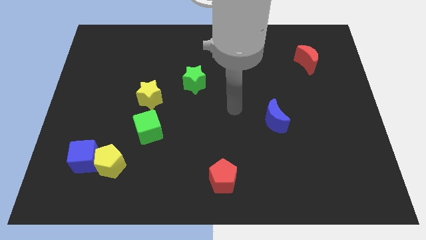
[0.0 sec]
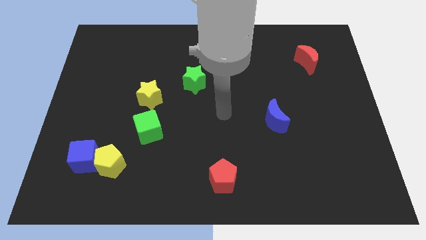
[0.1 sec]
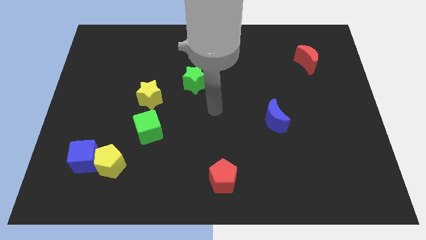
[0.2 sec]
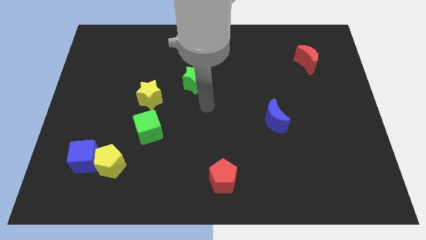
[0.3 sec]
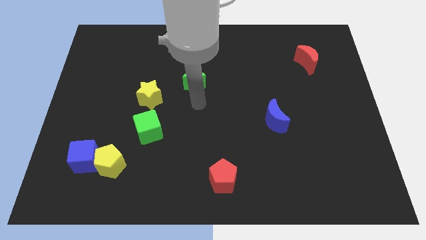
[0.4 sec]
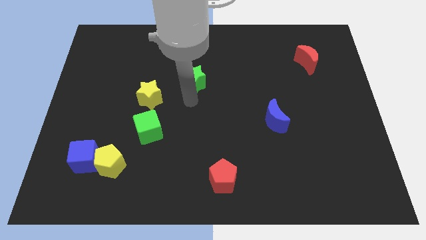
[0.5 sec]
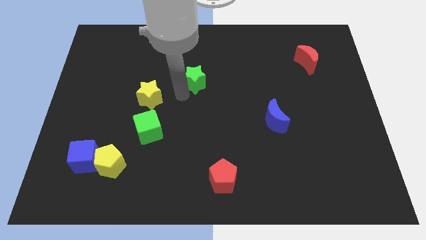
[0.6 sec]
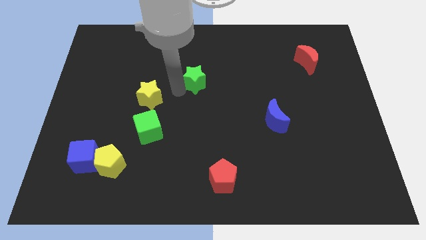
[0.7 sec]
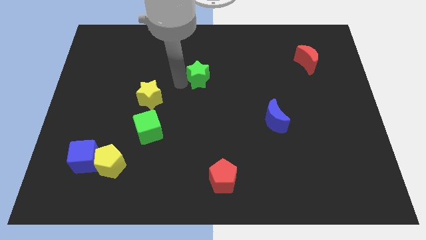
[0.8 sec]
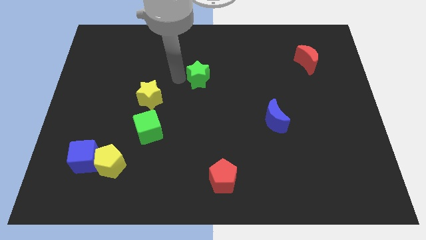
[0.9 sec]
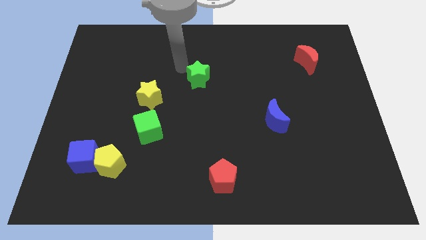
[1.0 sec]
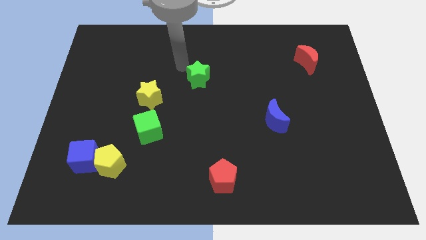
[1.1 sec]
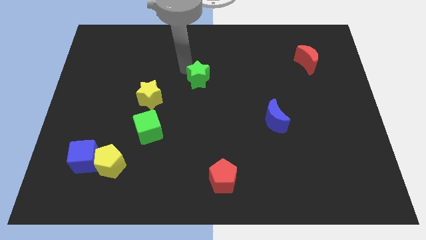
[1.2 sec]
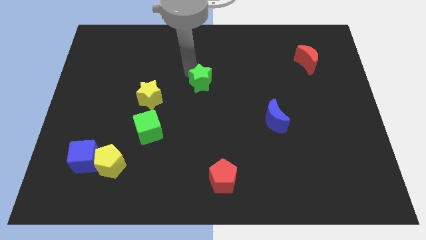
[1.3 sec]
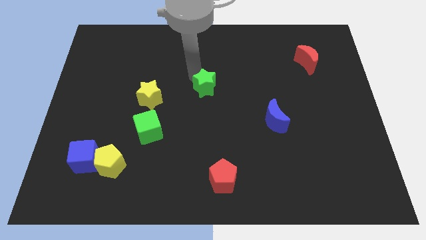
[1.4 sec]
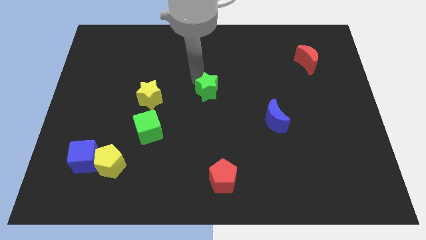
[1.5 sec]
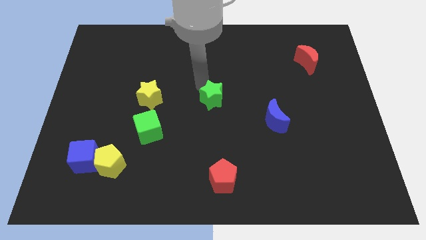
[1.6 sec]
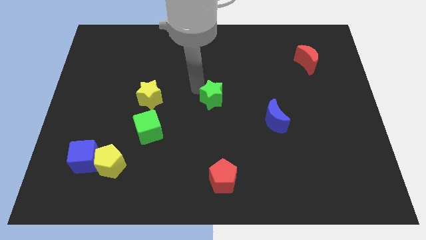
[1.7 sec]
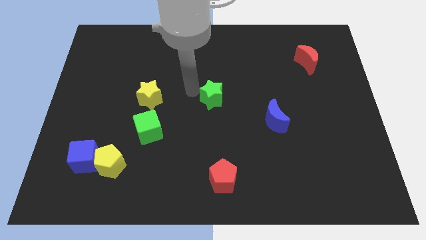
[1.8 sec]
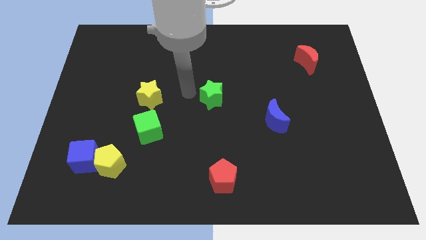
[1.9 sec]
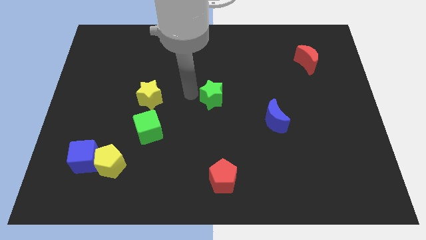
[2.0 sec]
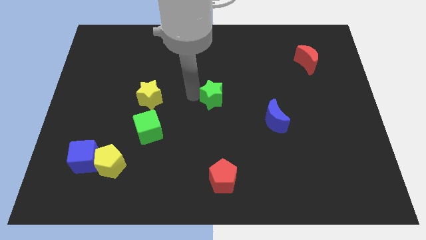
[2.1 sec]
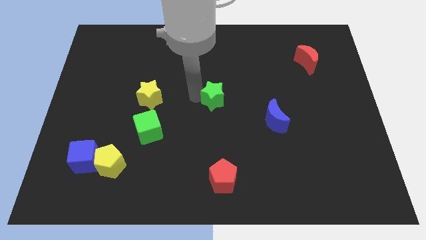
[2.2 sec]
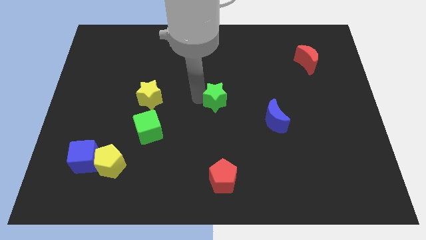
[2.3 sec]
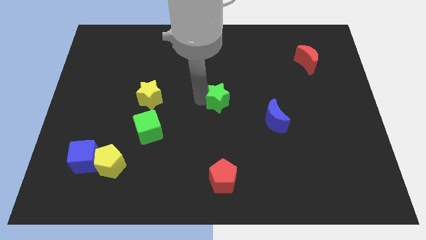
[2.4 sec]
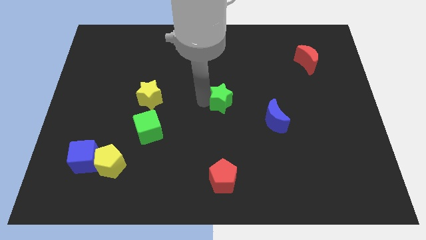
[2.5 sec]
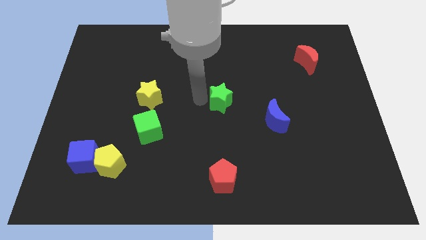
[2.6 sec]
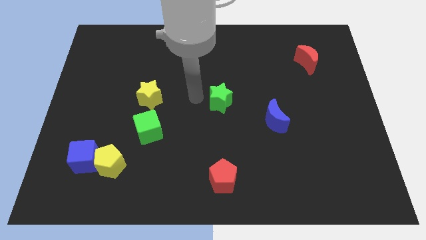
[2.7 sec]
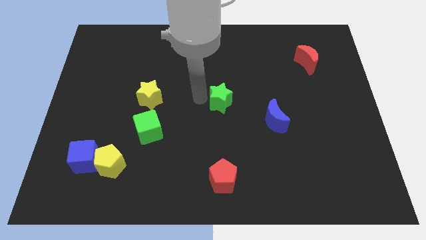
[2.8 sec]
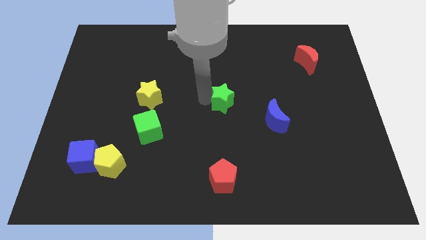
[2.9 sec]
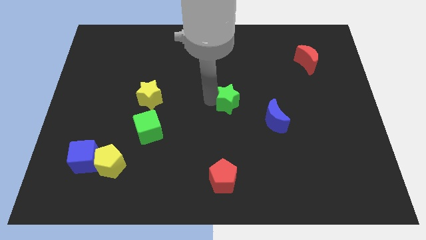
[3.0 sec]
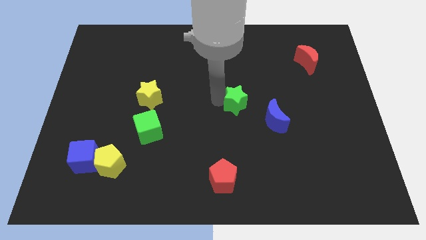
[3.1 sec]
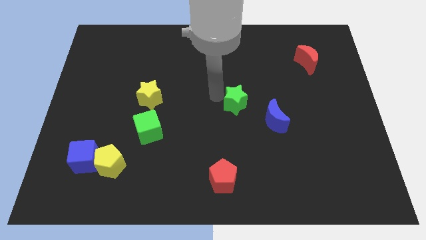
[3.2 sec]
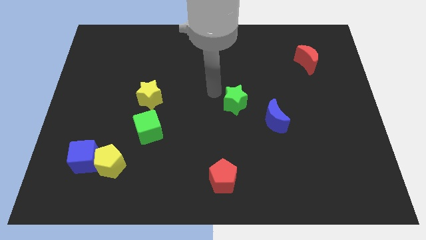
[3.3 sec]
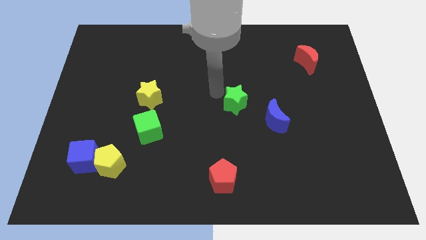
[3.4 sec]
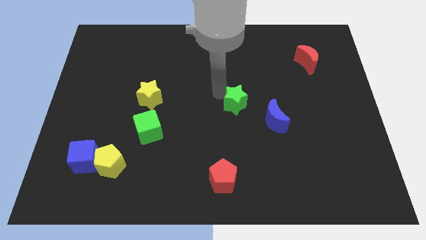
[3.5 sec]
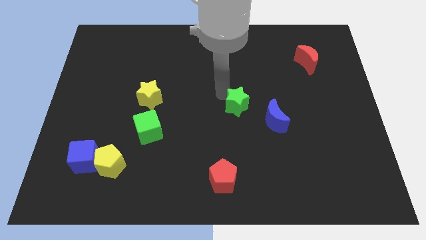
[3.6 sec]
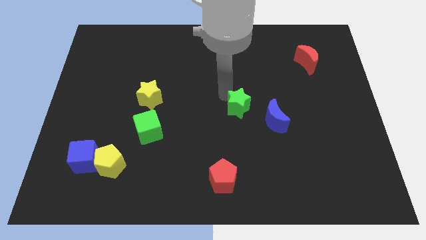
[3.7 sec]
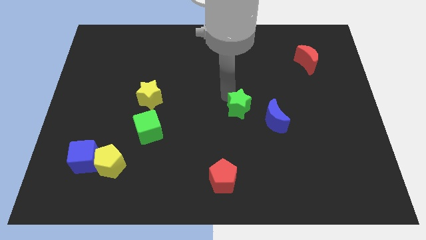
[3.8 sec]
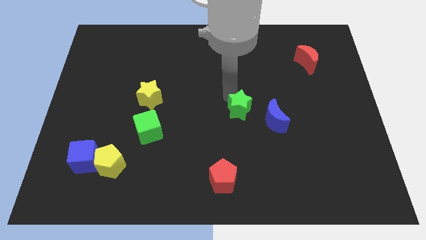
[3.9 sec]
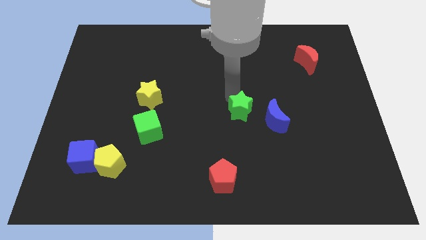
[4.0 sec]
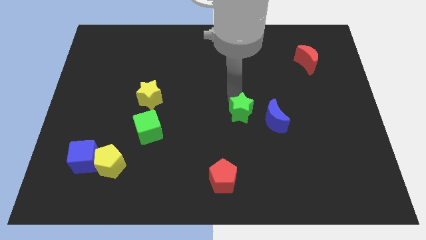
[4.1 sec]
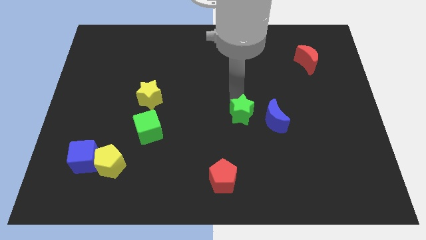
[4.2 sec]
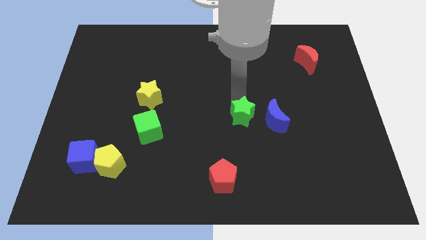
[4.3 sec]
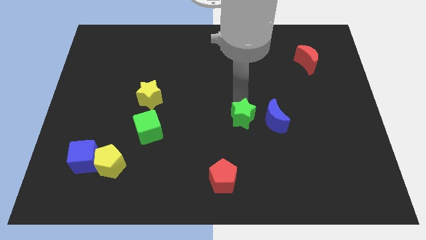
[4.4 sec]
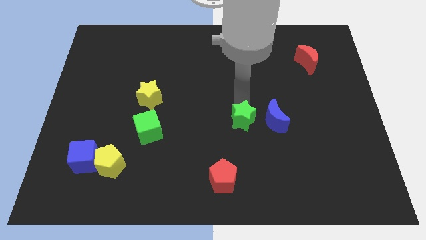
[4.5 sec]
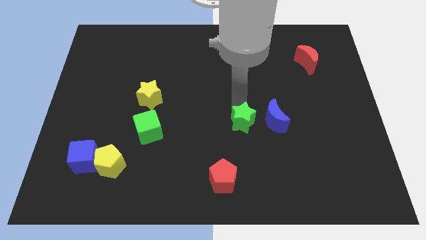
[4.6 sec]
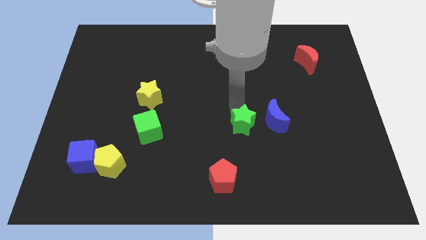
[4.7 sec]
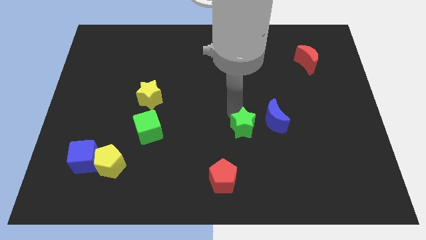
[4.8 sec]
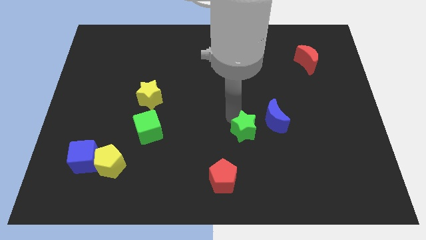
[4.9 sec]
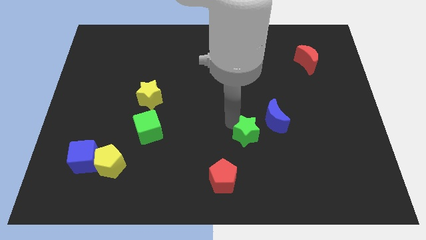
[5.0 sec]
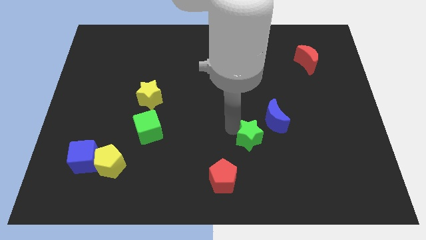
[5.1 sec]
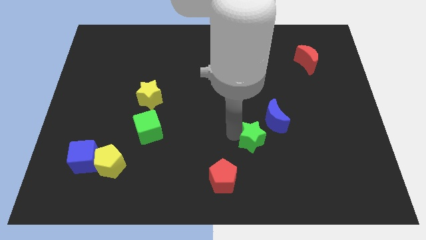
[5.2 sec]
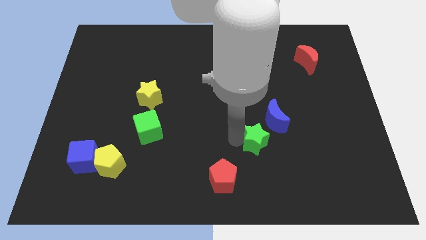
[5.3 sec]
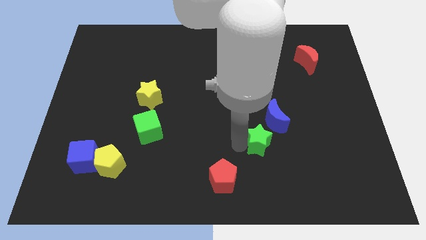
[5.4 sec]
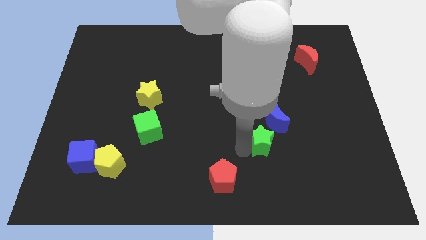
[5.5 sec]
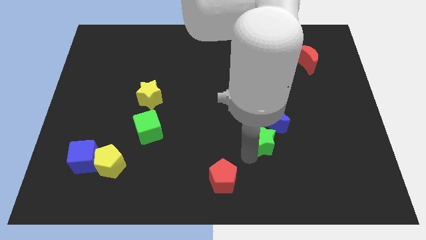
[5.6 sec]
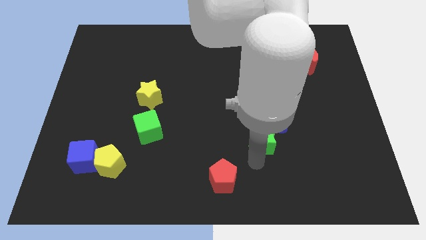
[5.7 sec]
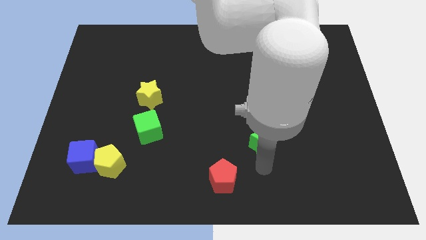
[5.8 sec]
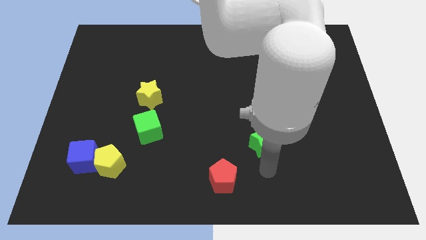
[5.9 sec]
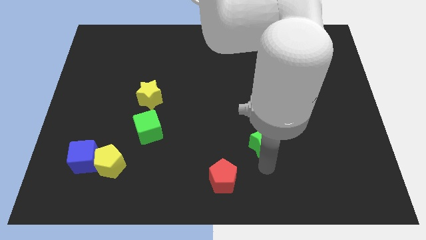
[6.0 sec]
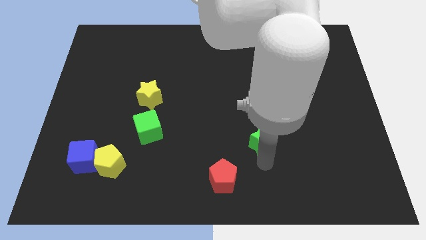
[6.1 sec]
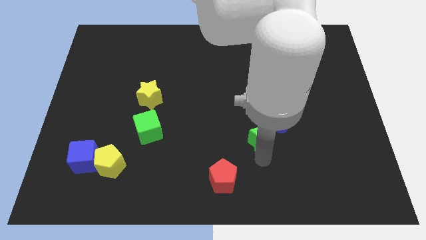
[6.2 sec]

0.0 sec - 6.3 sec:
push the green star close to the blue moon

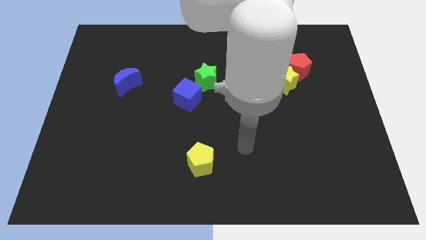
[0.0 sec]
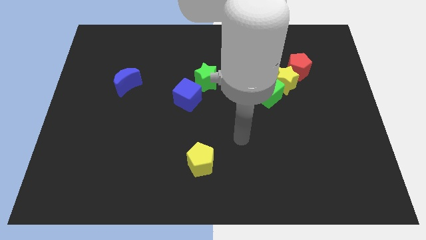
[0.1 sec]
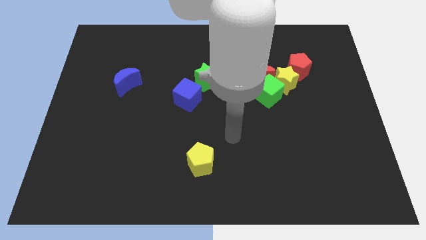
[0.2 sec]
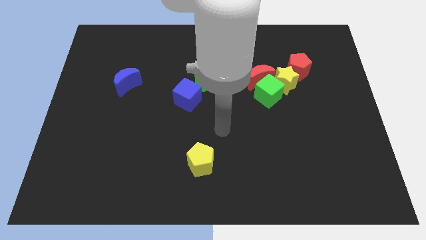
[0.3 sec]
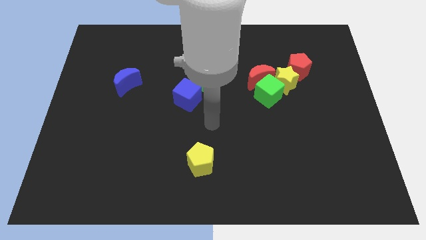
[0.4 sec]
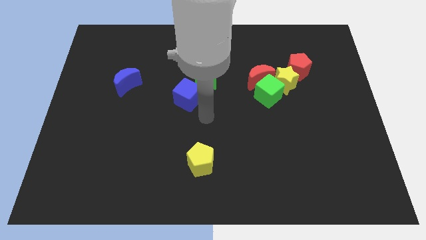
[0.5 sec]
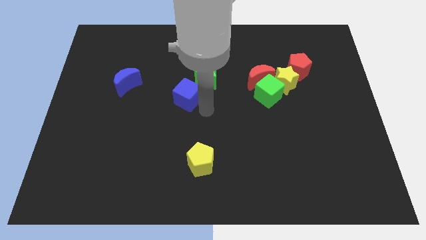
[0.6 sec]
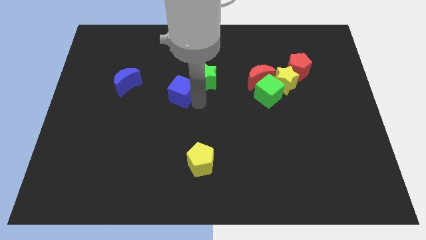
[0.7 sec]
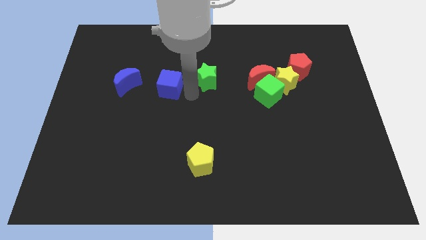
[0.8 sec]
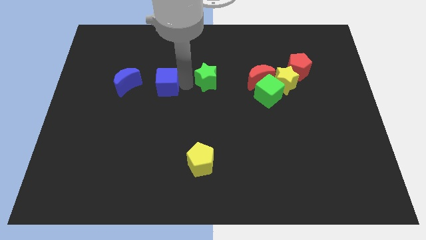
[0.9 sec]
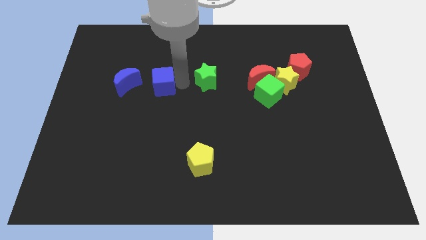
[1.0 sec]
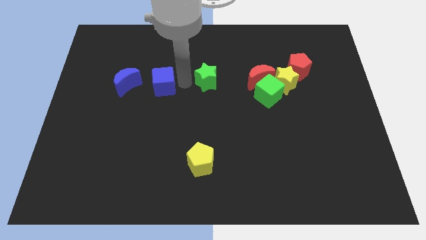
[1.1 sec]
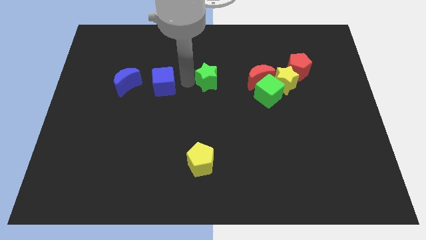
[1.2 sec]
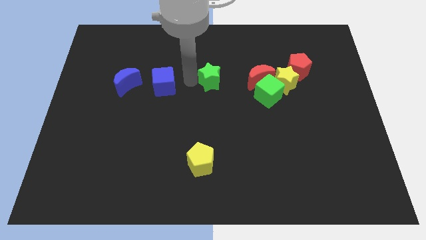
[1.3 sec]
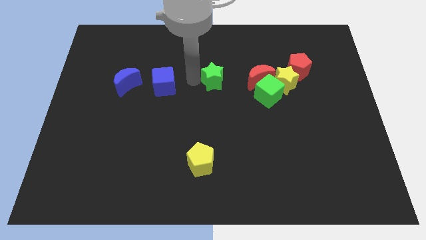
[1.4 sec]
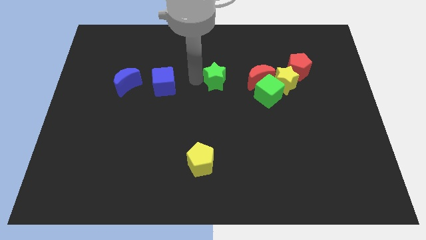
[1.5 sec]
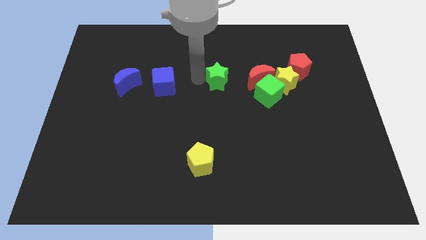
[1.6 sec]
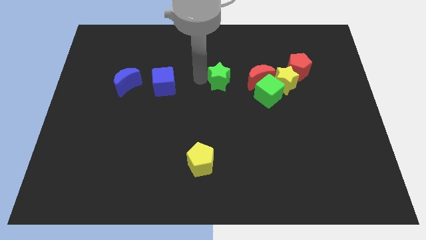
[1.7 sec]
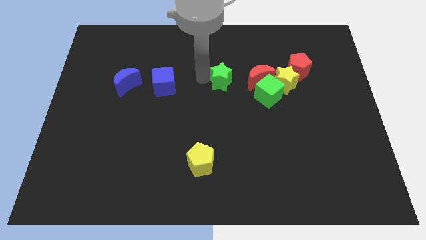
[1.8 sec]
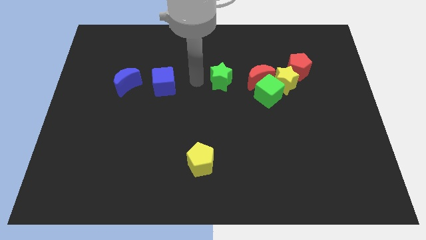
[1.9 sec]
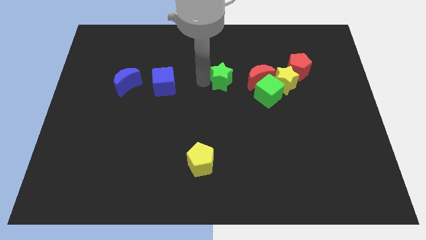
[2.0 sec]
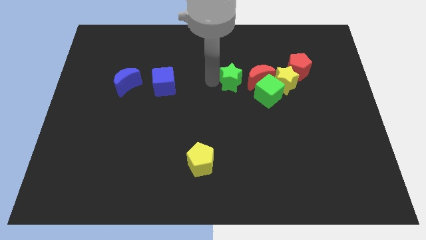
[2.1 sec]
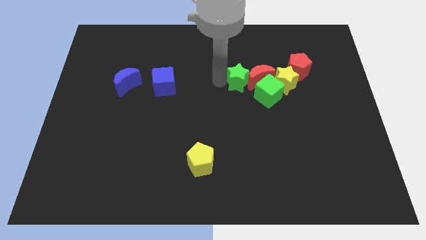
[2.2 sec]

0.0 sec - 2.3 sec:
push the green star close to the red moon
